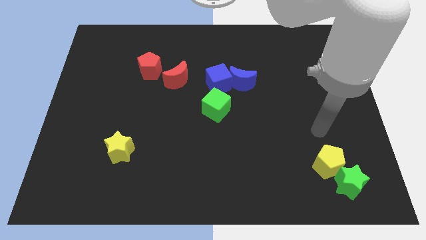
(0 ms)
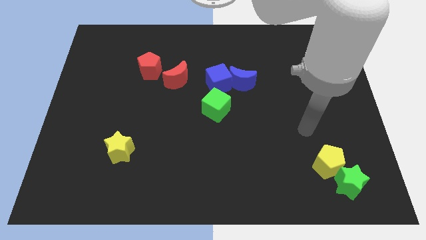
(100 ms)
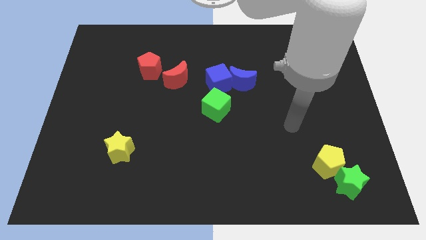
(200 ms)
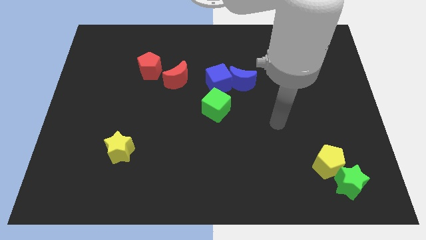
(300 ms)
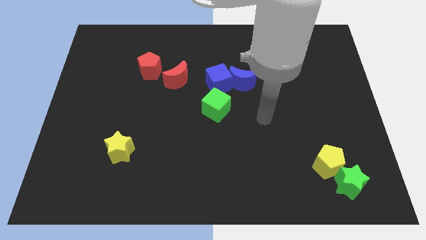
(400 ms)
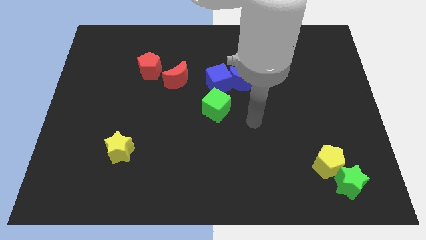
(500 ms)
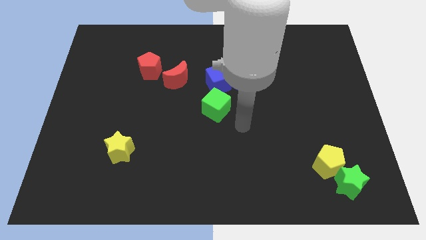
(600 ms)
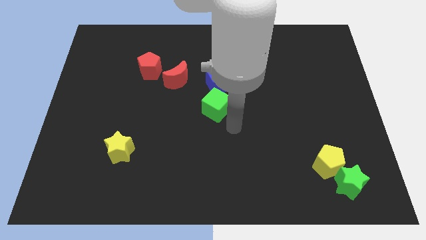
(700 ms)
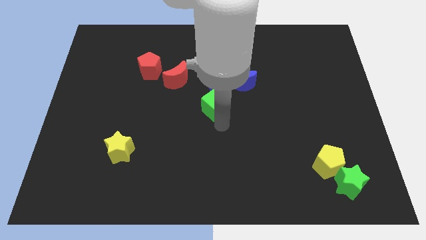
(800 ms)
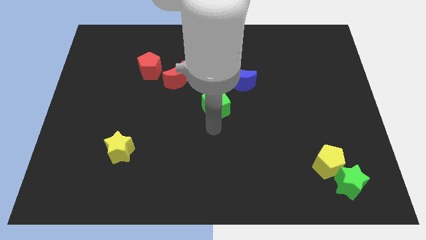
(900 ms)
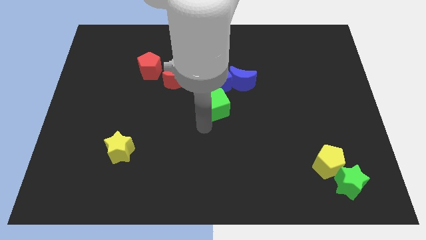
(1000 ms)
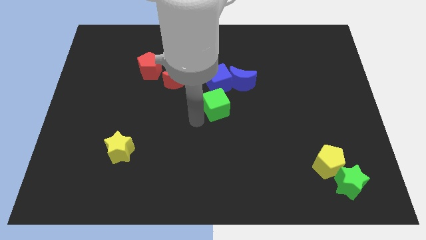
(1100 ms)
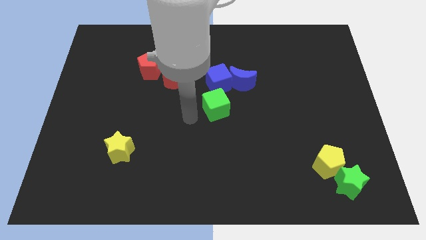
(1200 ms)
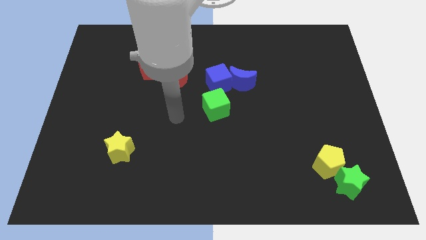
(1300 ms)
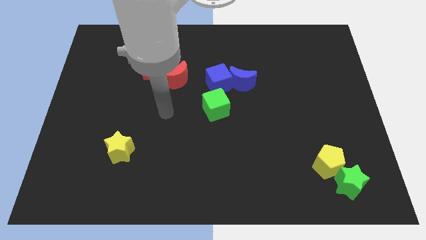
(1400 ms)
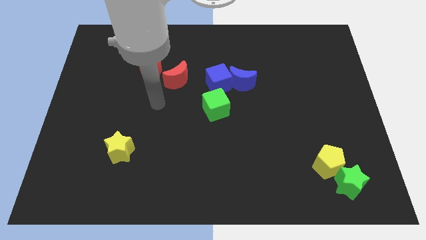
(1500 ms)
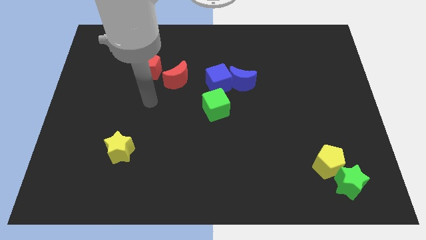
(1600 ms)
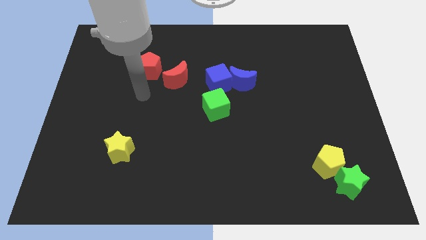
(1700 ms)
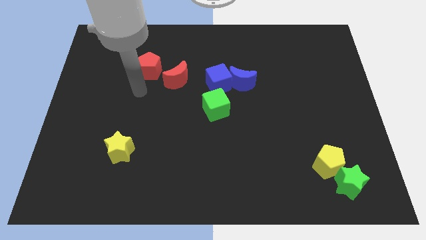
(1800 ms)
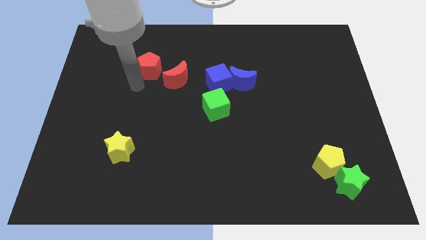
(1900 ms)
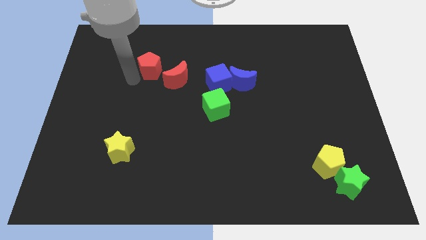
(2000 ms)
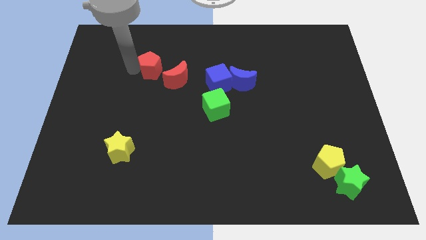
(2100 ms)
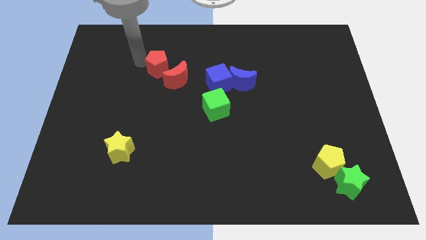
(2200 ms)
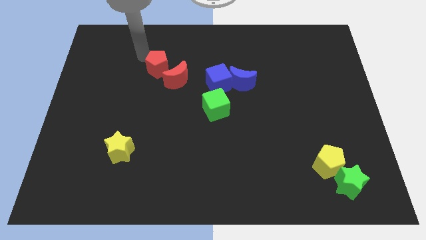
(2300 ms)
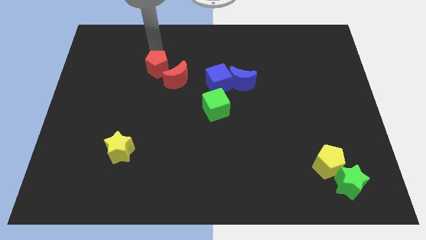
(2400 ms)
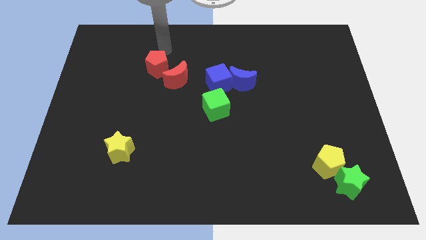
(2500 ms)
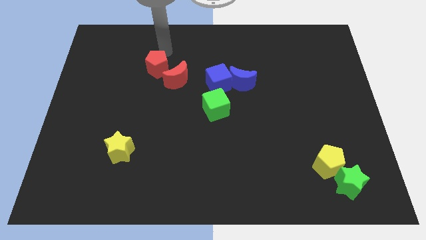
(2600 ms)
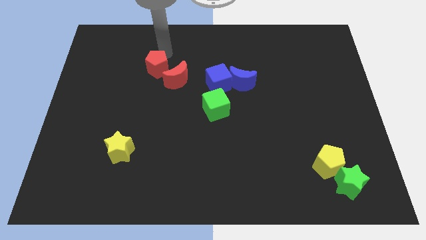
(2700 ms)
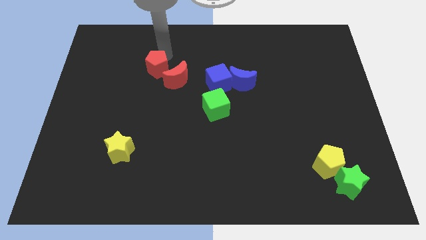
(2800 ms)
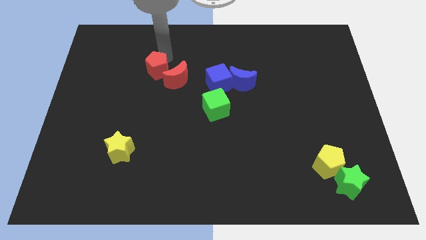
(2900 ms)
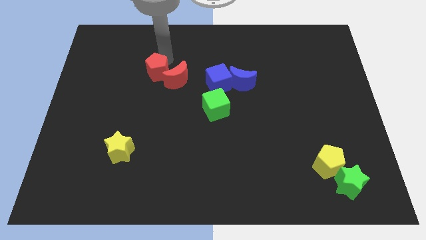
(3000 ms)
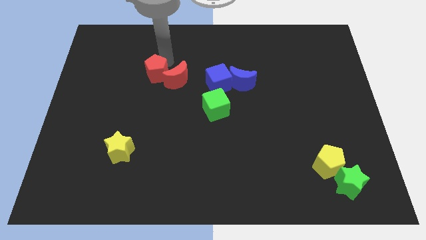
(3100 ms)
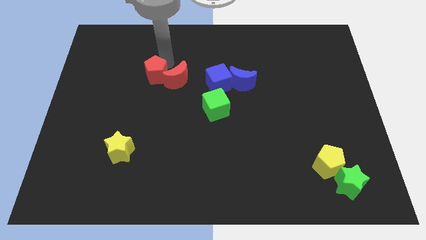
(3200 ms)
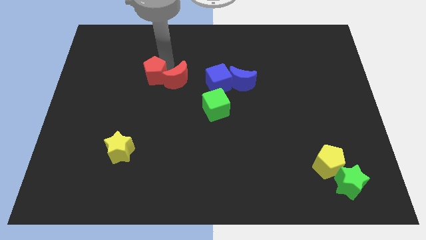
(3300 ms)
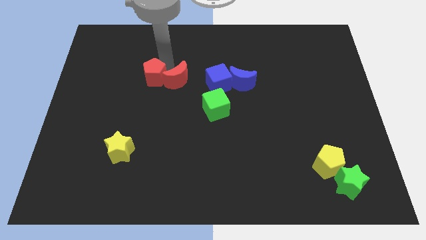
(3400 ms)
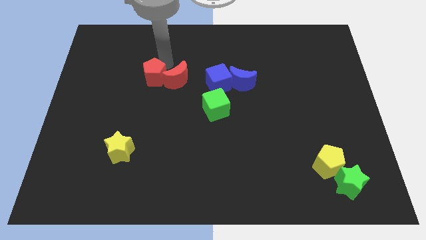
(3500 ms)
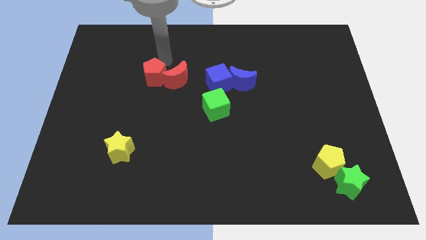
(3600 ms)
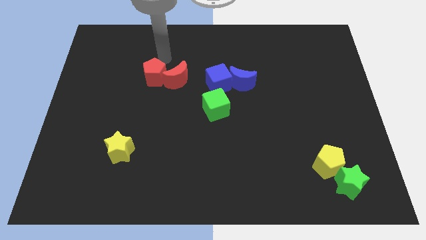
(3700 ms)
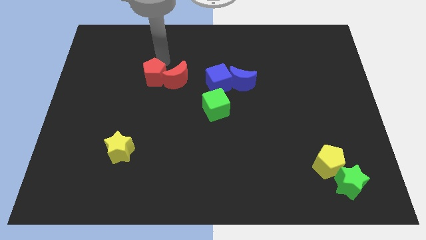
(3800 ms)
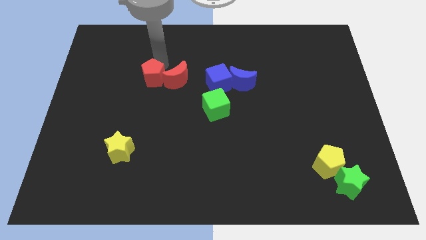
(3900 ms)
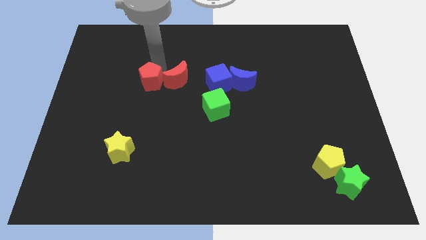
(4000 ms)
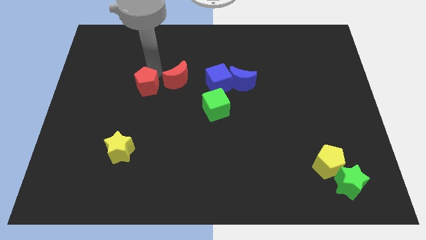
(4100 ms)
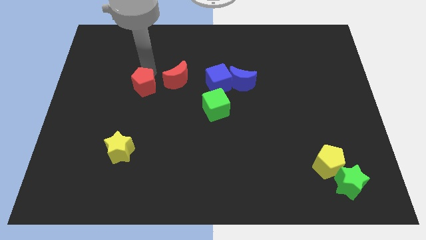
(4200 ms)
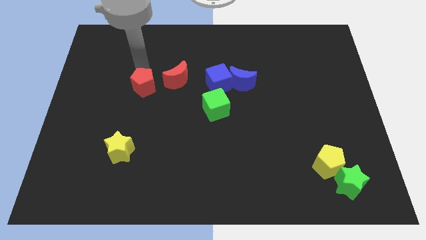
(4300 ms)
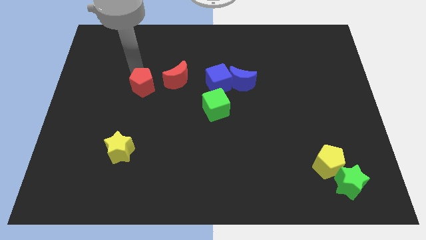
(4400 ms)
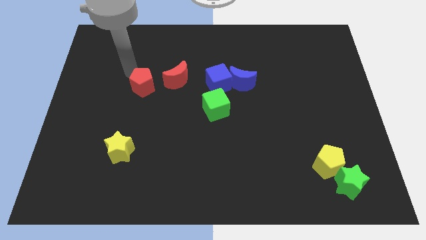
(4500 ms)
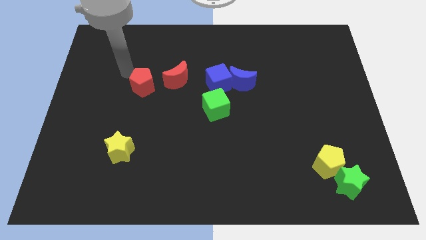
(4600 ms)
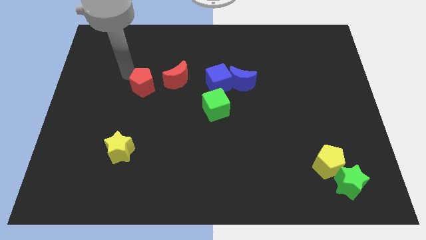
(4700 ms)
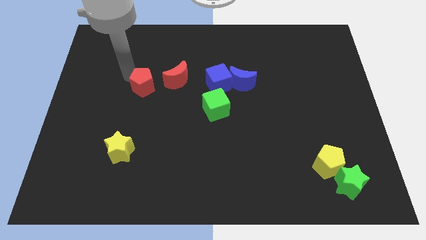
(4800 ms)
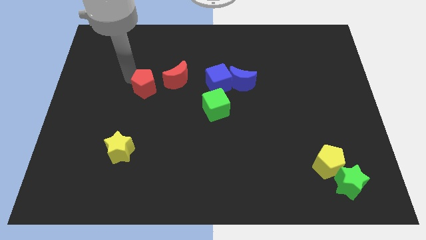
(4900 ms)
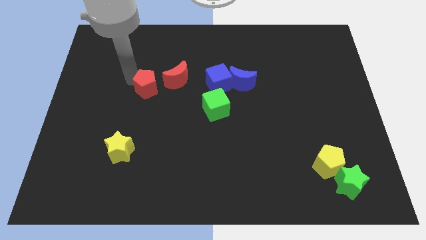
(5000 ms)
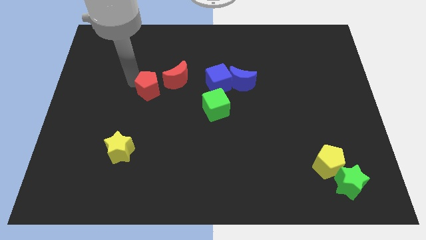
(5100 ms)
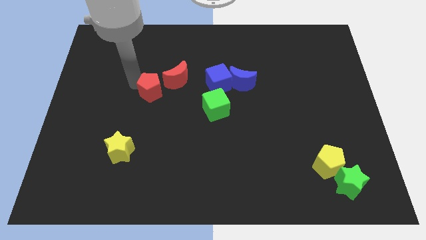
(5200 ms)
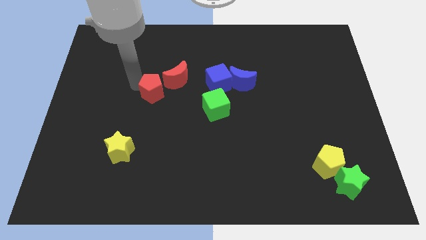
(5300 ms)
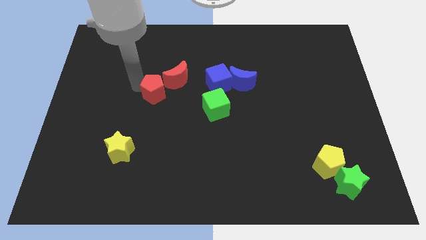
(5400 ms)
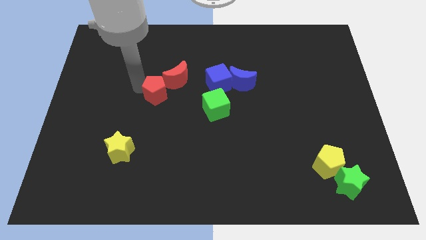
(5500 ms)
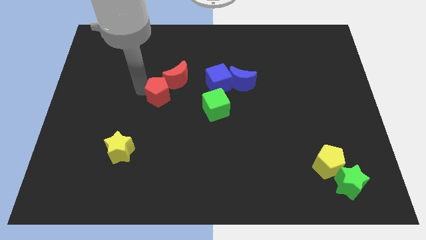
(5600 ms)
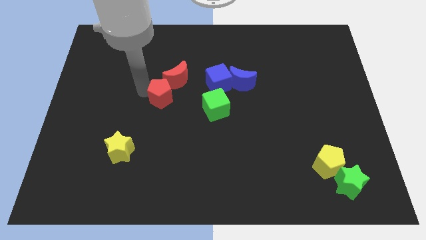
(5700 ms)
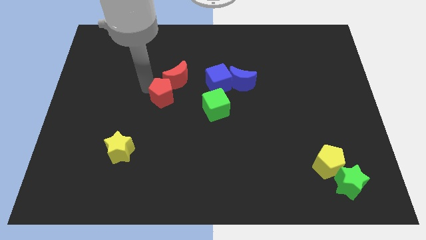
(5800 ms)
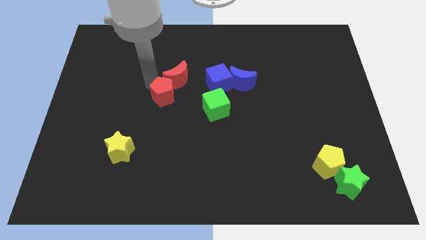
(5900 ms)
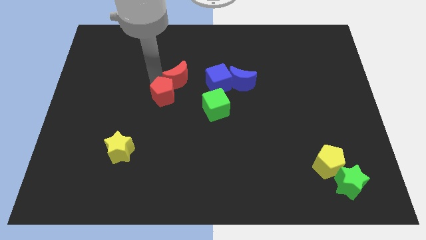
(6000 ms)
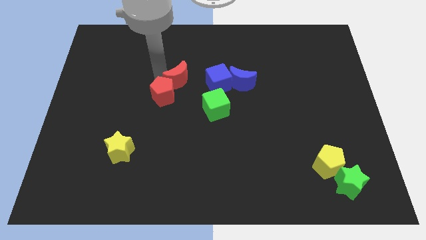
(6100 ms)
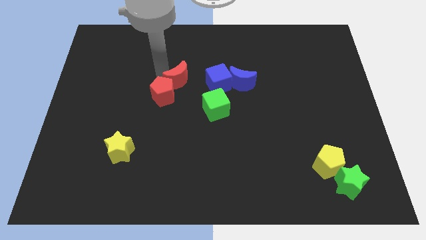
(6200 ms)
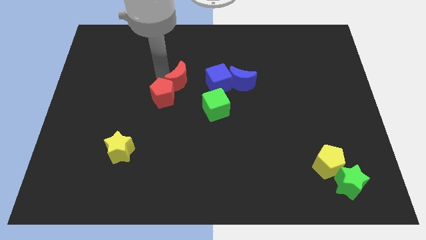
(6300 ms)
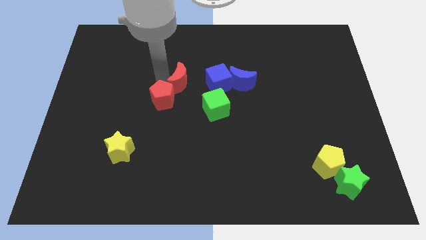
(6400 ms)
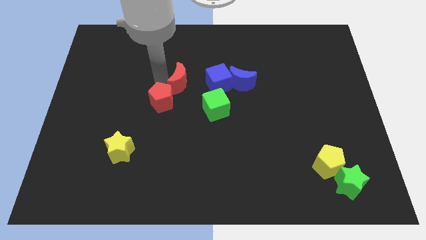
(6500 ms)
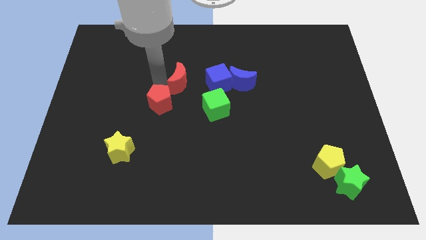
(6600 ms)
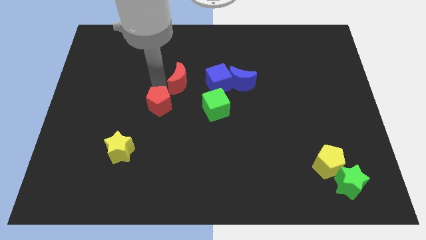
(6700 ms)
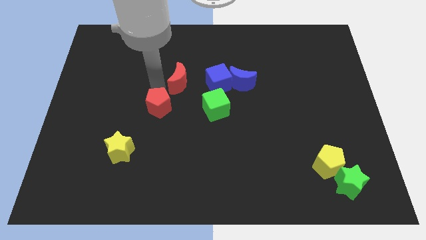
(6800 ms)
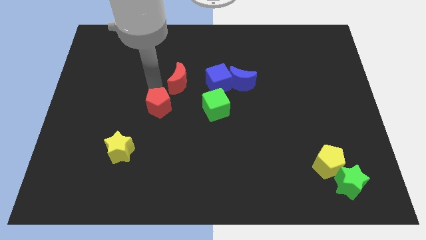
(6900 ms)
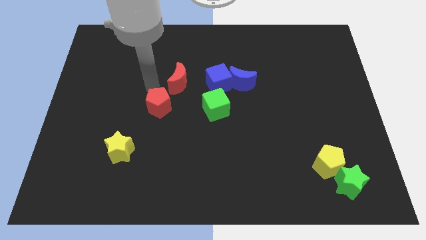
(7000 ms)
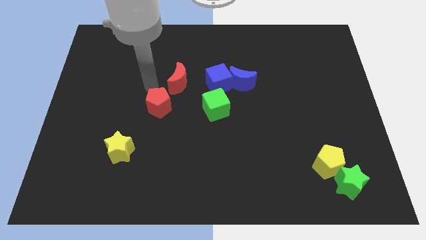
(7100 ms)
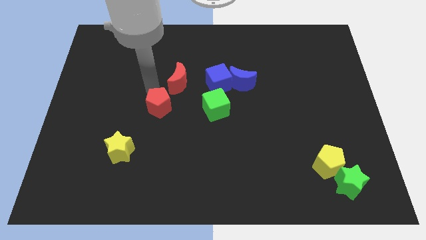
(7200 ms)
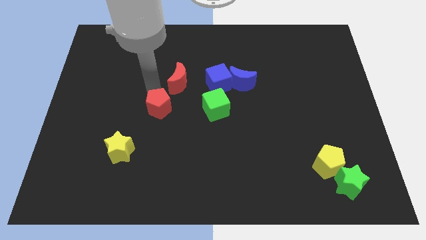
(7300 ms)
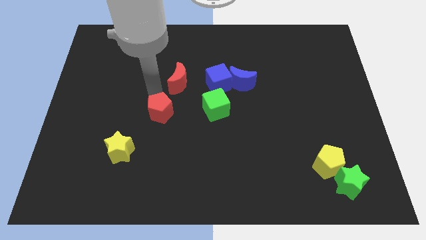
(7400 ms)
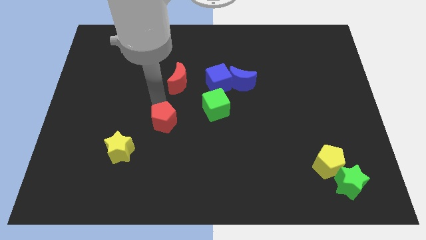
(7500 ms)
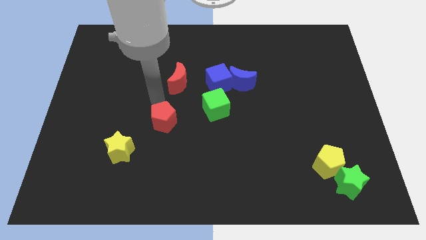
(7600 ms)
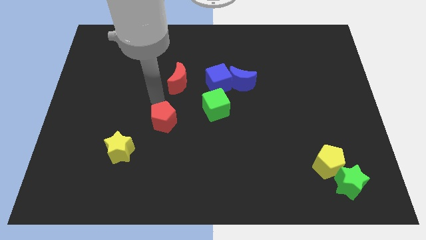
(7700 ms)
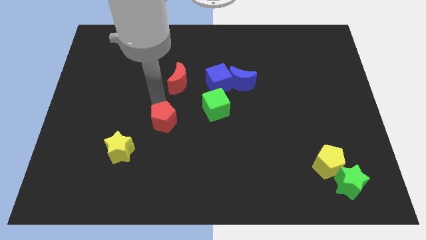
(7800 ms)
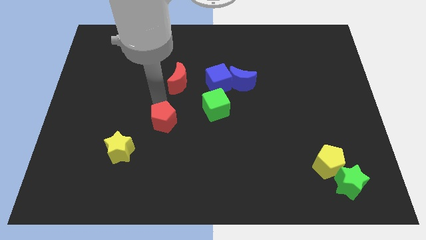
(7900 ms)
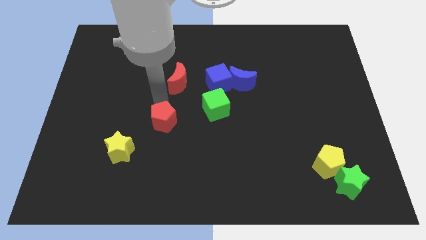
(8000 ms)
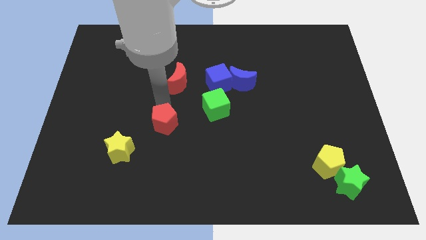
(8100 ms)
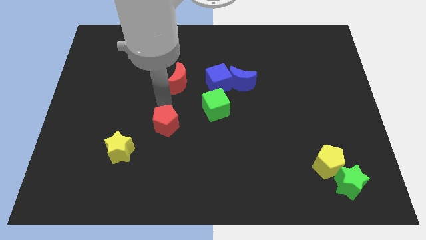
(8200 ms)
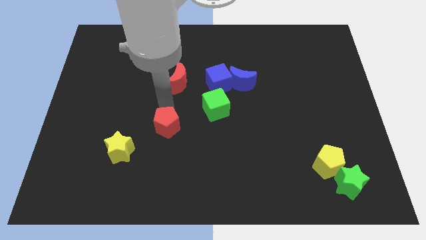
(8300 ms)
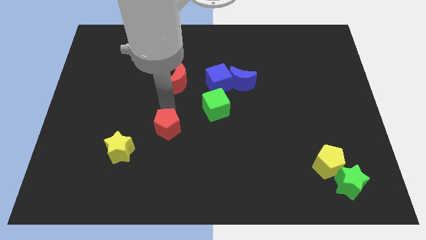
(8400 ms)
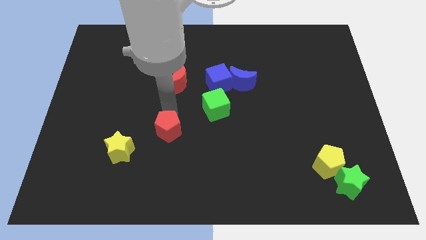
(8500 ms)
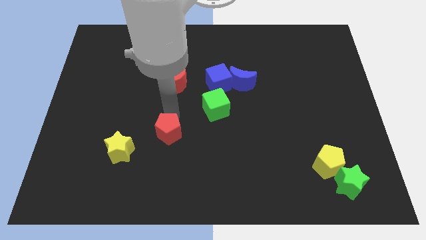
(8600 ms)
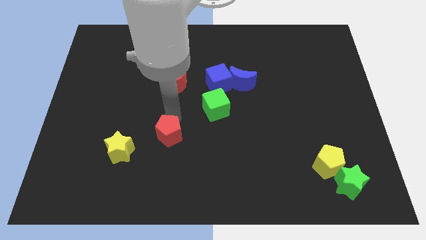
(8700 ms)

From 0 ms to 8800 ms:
slide the red pentagon to the right of the yellow star
